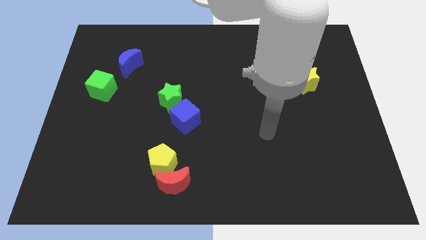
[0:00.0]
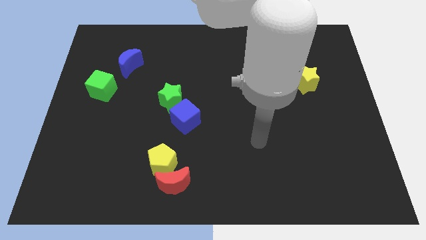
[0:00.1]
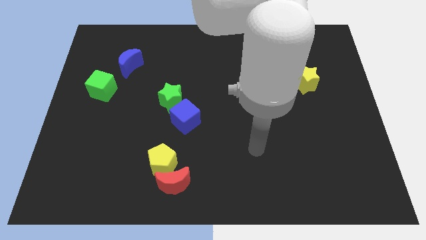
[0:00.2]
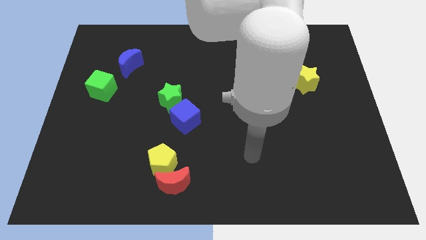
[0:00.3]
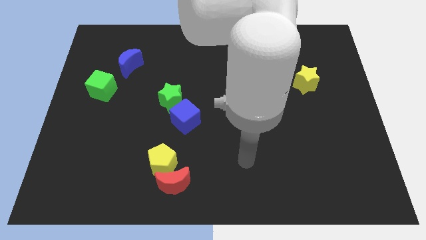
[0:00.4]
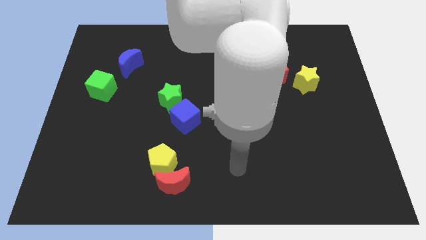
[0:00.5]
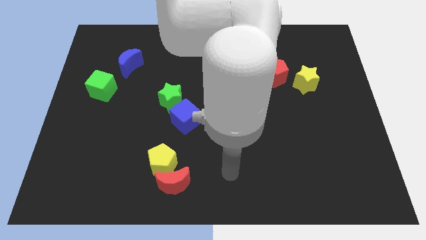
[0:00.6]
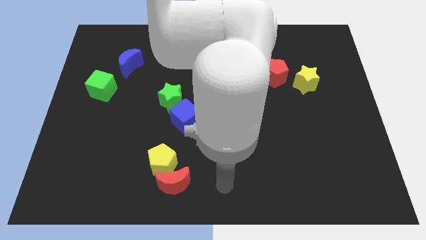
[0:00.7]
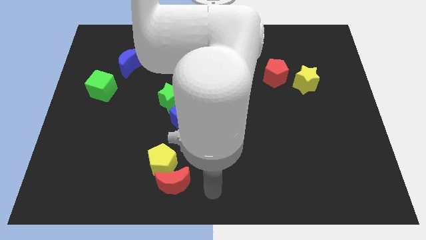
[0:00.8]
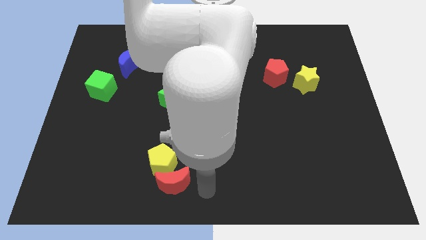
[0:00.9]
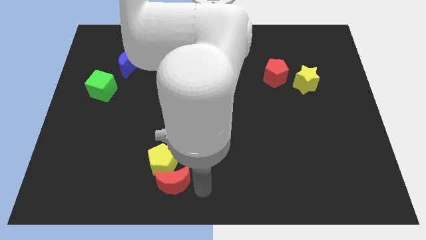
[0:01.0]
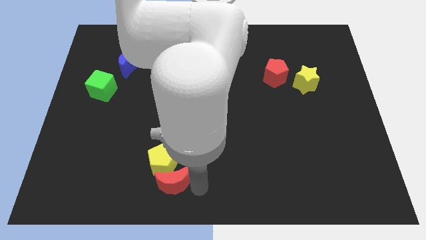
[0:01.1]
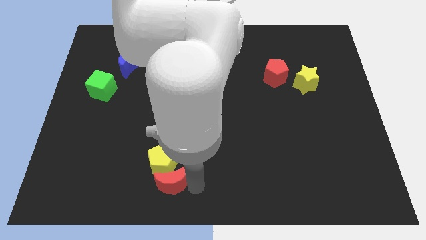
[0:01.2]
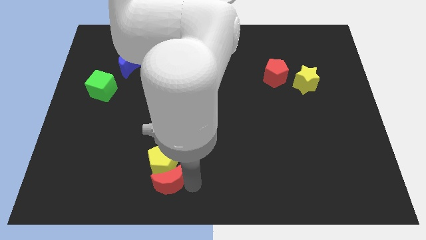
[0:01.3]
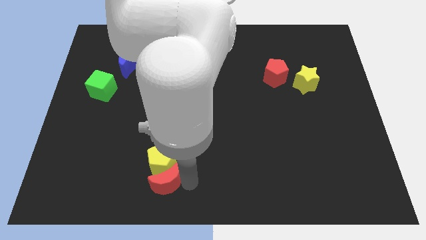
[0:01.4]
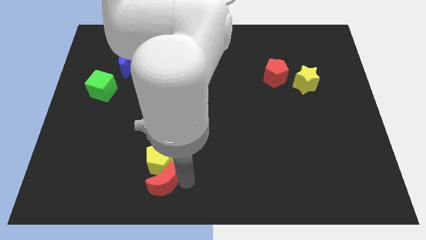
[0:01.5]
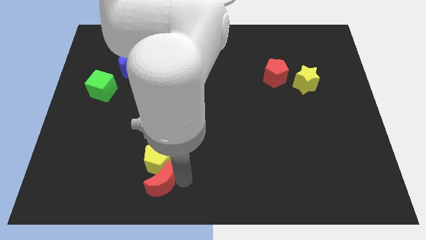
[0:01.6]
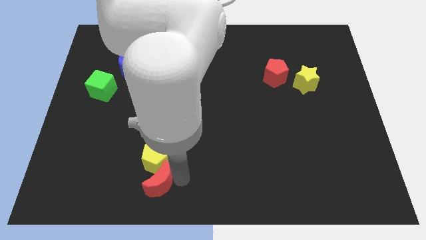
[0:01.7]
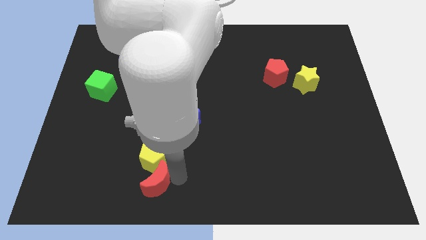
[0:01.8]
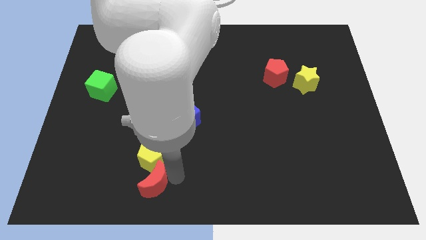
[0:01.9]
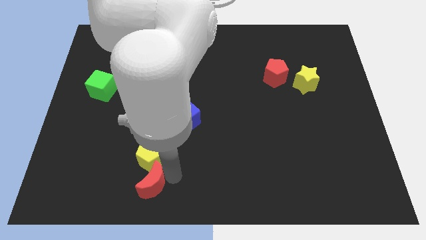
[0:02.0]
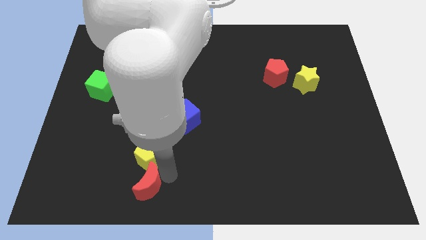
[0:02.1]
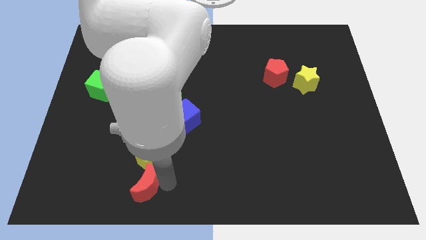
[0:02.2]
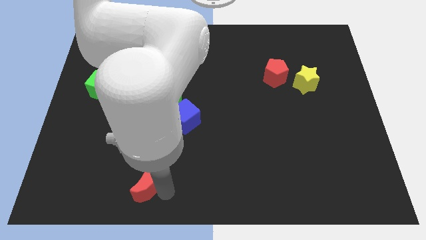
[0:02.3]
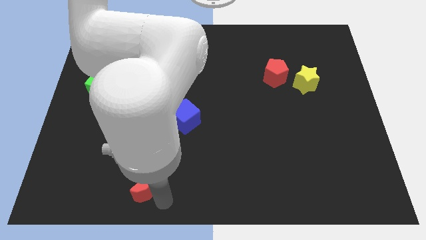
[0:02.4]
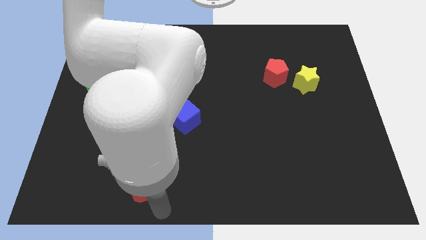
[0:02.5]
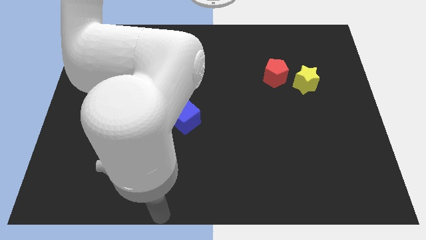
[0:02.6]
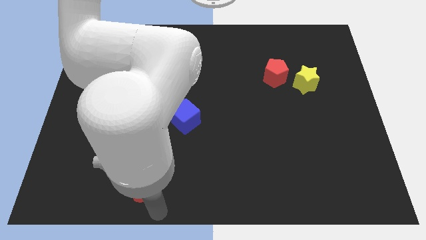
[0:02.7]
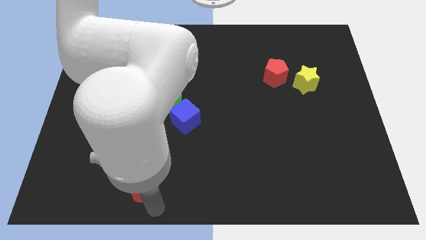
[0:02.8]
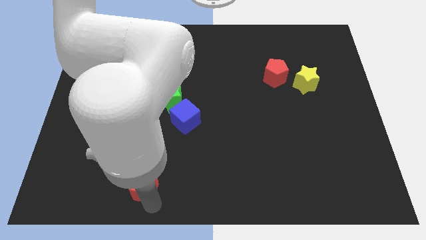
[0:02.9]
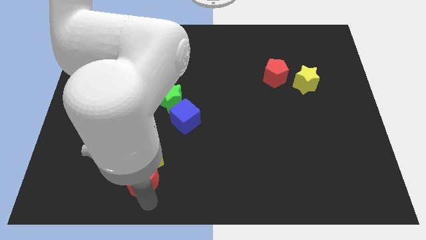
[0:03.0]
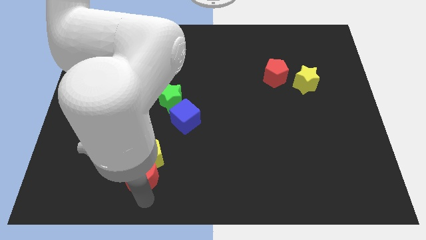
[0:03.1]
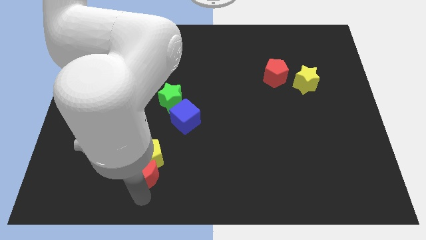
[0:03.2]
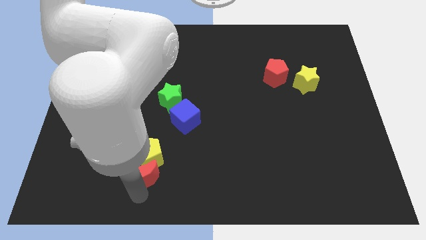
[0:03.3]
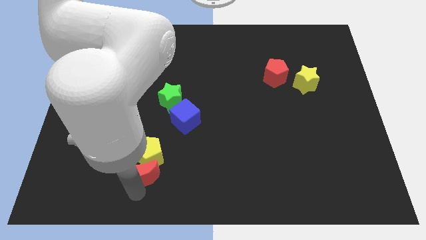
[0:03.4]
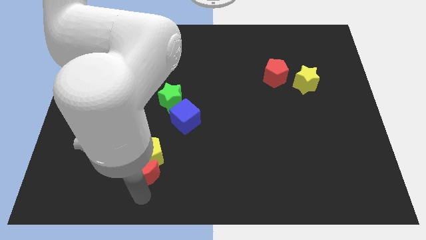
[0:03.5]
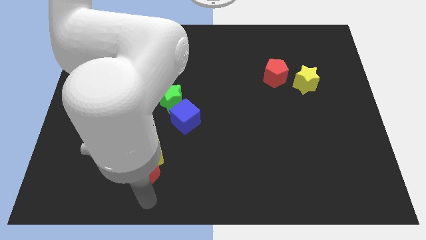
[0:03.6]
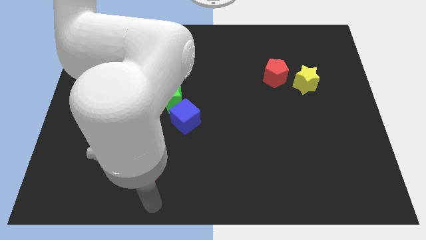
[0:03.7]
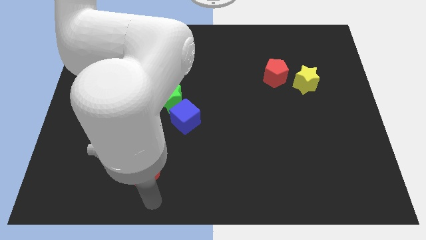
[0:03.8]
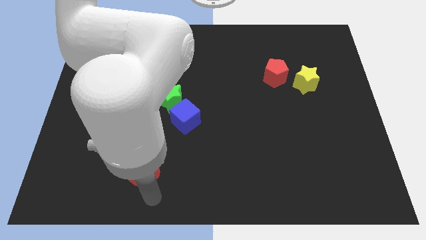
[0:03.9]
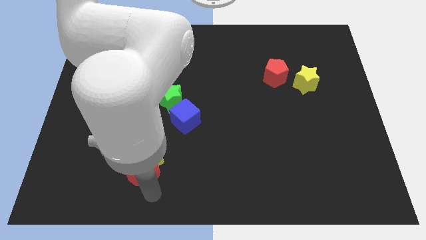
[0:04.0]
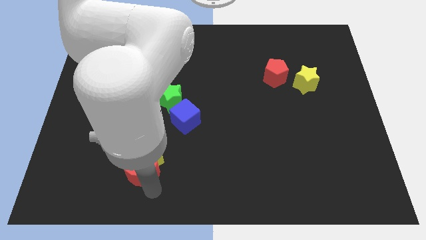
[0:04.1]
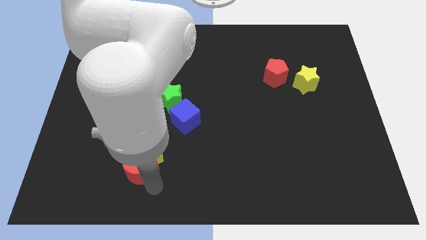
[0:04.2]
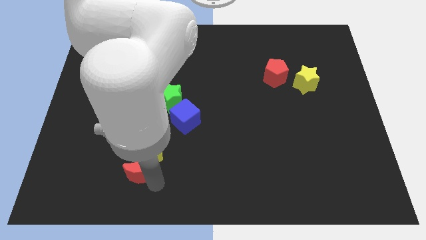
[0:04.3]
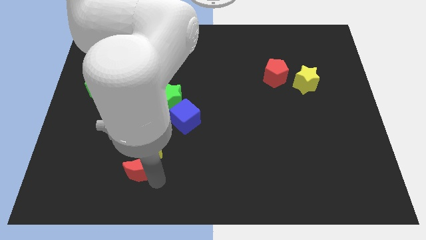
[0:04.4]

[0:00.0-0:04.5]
push the red moon slightly upwards and then left

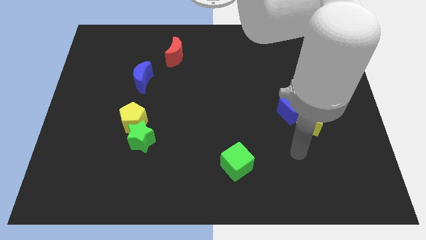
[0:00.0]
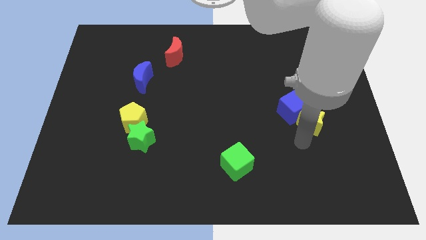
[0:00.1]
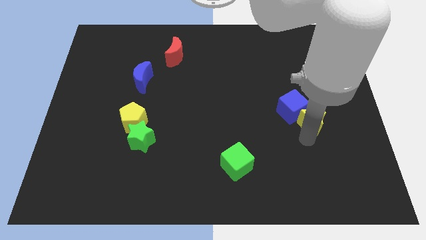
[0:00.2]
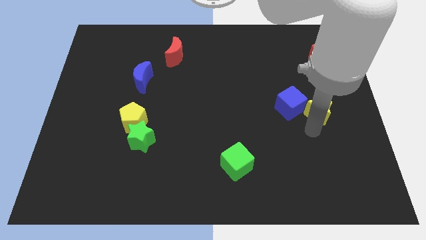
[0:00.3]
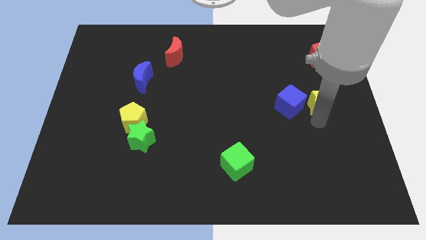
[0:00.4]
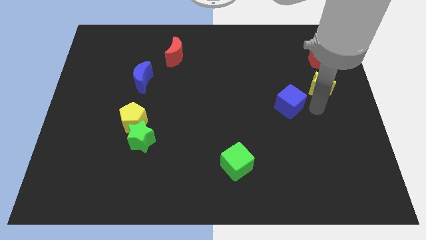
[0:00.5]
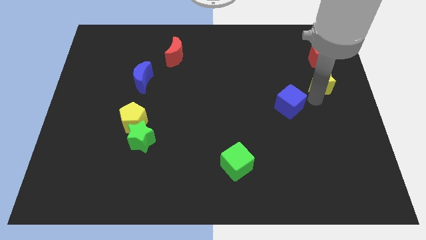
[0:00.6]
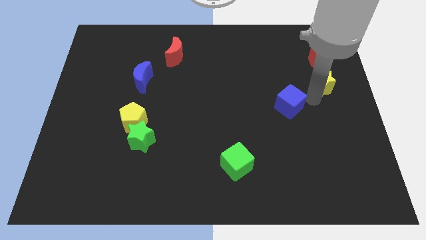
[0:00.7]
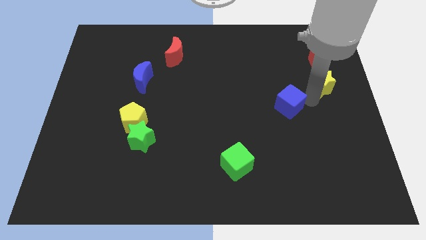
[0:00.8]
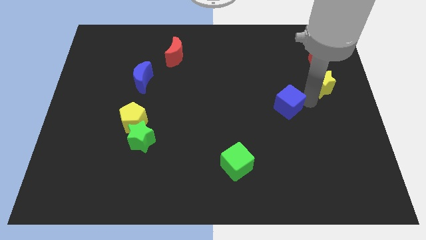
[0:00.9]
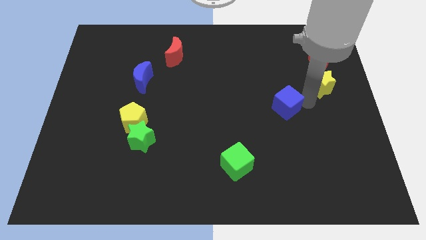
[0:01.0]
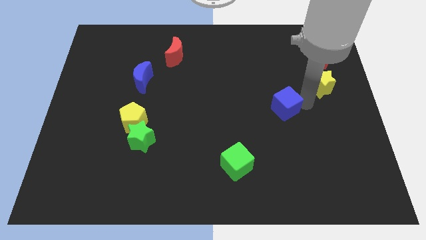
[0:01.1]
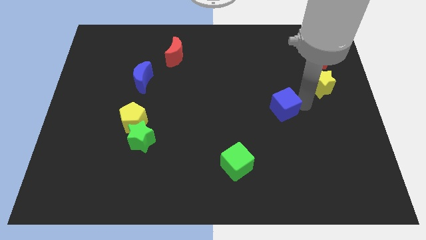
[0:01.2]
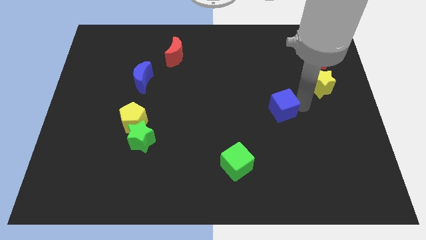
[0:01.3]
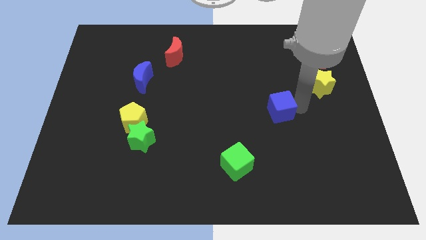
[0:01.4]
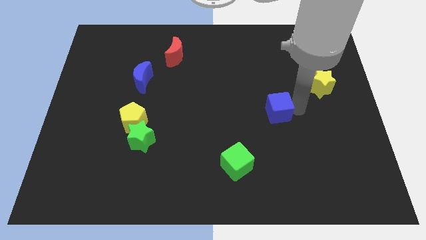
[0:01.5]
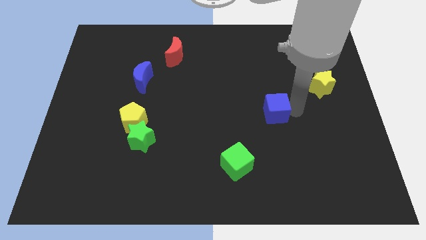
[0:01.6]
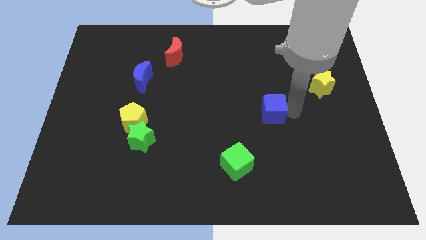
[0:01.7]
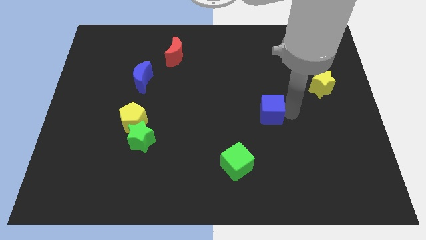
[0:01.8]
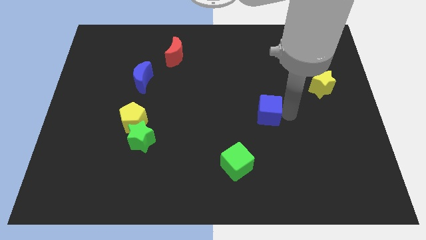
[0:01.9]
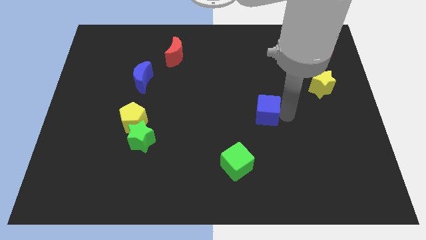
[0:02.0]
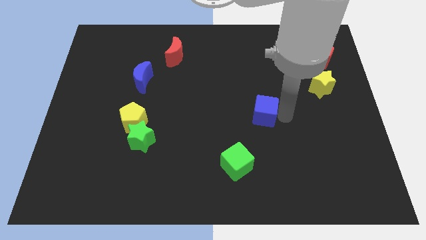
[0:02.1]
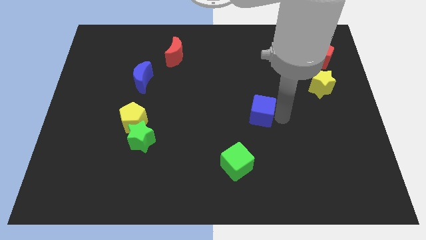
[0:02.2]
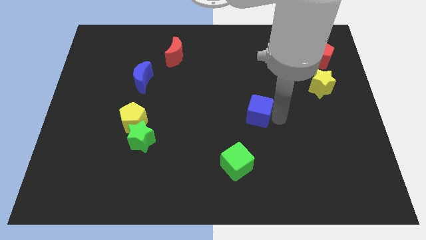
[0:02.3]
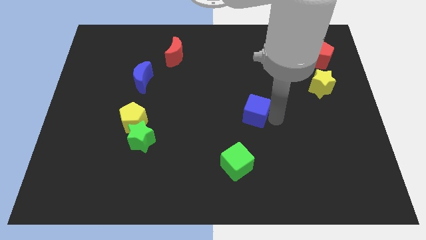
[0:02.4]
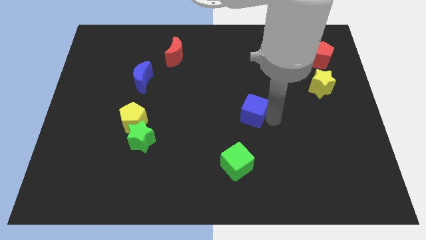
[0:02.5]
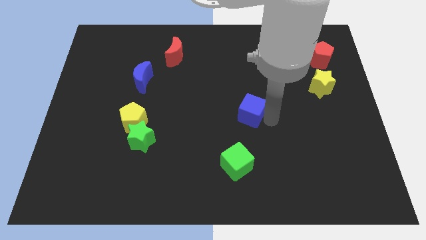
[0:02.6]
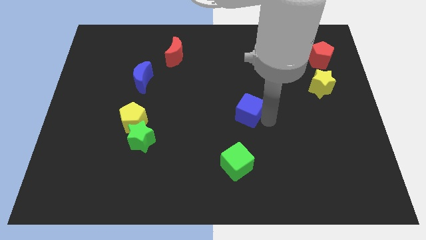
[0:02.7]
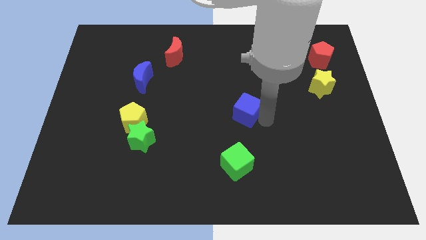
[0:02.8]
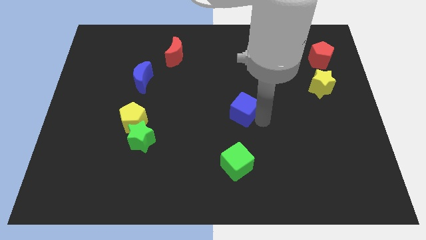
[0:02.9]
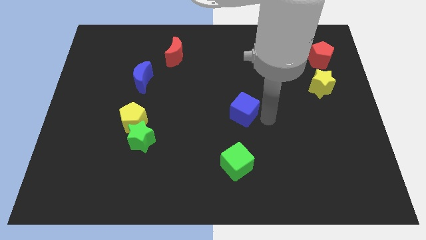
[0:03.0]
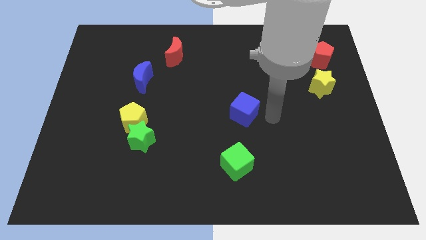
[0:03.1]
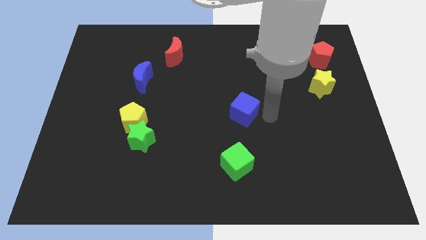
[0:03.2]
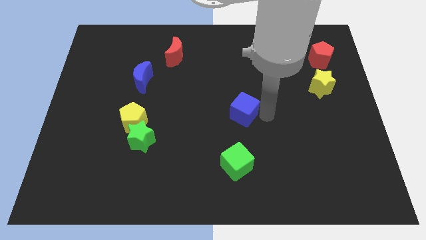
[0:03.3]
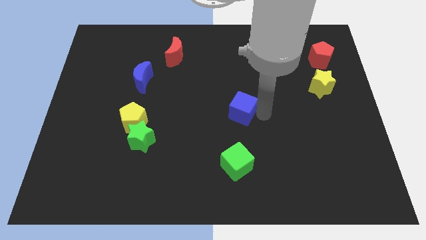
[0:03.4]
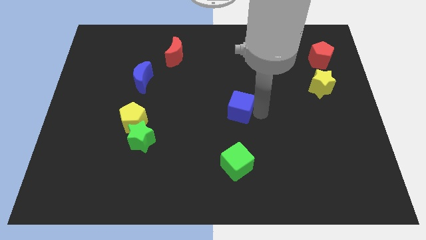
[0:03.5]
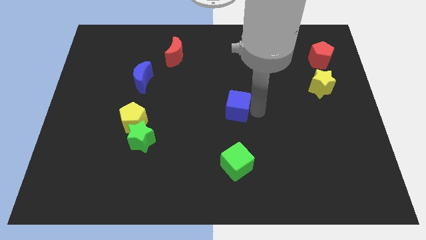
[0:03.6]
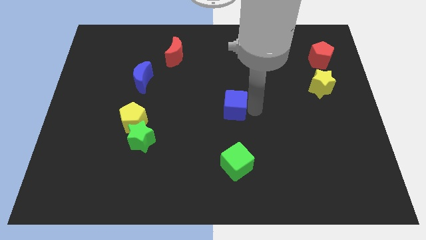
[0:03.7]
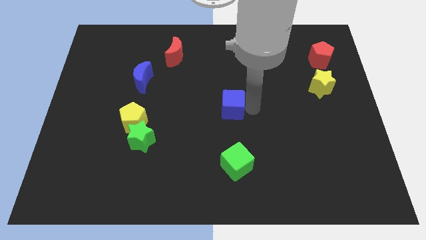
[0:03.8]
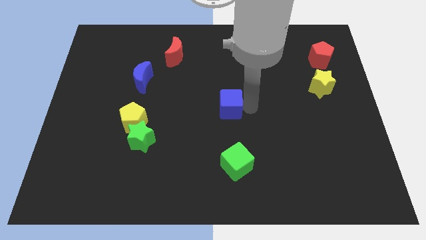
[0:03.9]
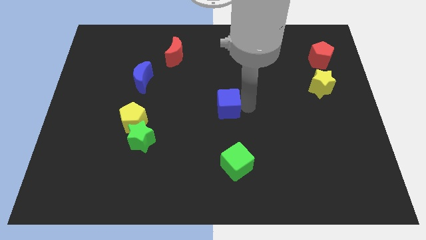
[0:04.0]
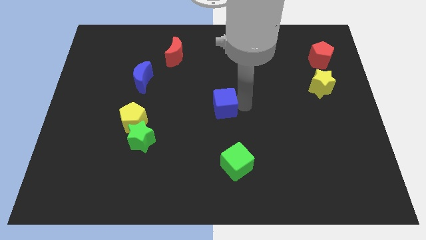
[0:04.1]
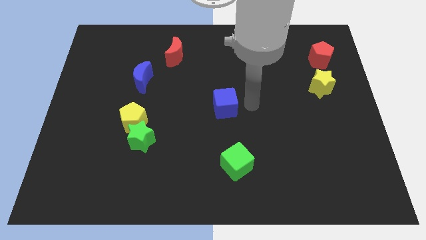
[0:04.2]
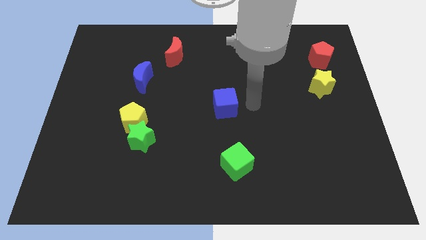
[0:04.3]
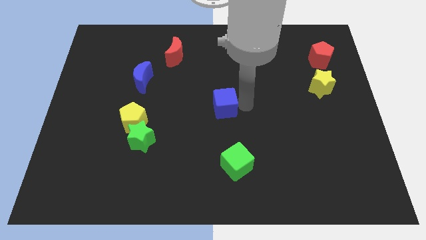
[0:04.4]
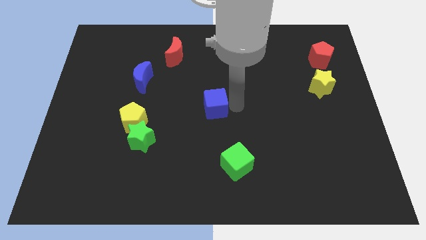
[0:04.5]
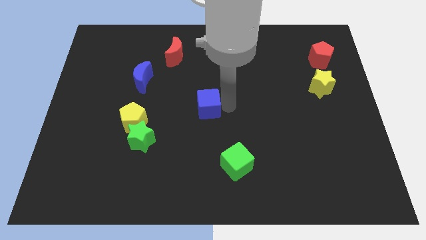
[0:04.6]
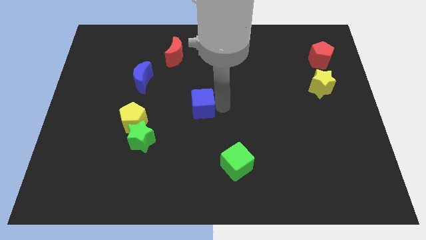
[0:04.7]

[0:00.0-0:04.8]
push the blue cube to the left
